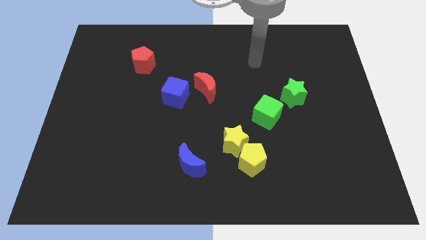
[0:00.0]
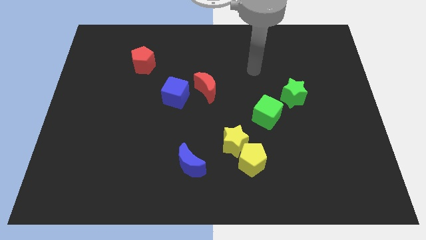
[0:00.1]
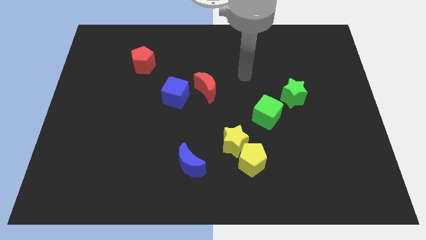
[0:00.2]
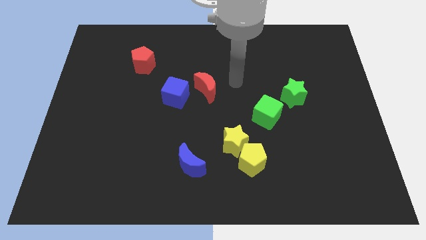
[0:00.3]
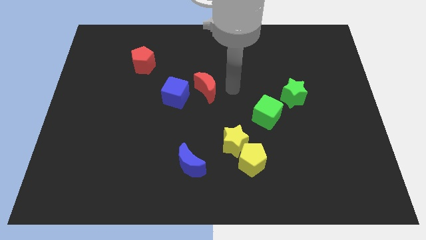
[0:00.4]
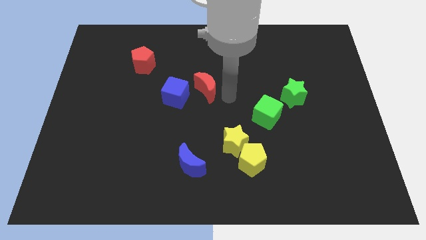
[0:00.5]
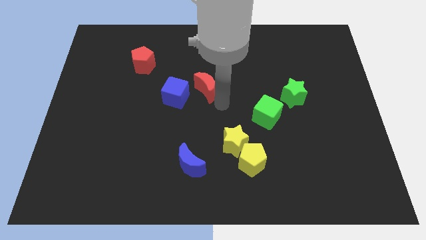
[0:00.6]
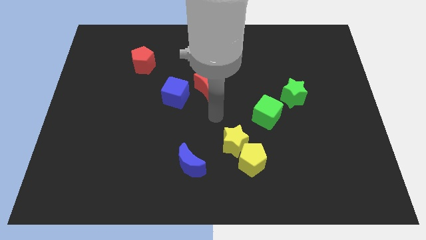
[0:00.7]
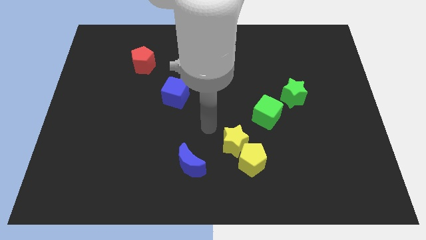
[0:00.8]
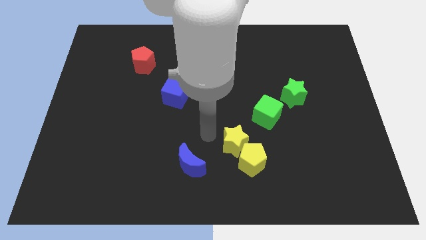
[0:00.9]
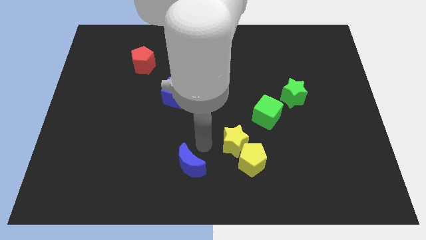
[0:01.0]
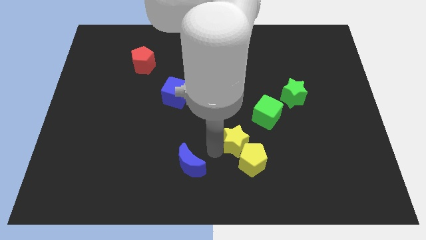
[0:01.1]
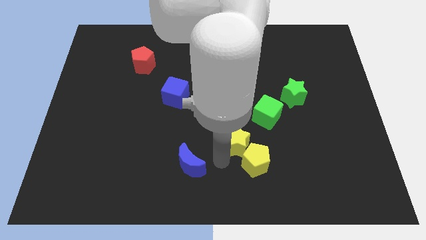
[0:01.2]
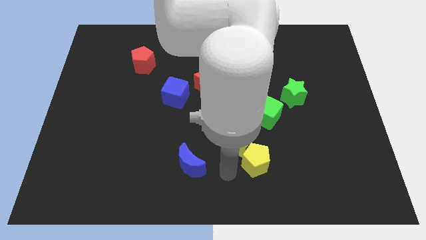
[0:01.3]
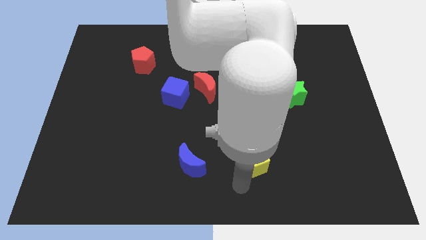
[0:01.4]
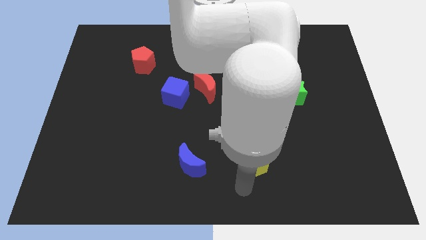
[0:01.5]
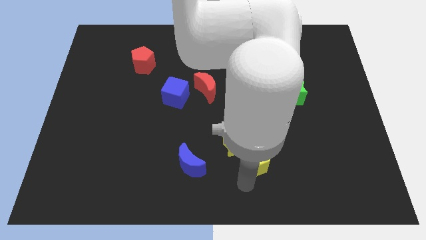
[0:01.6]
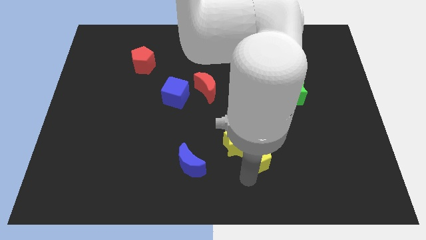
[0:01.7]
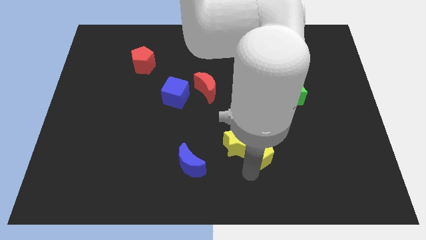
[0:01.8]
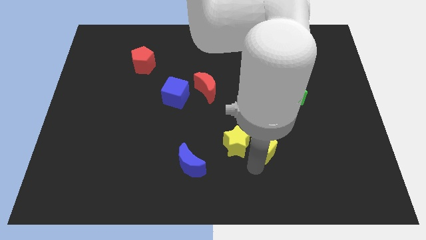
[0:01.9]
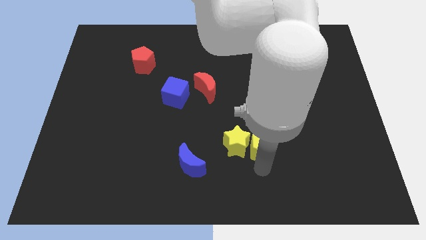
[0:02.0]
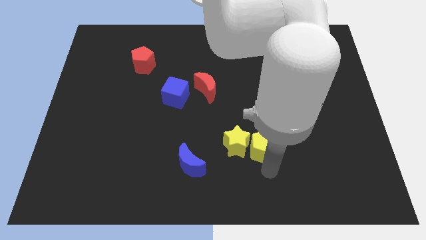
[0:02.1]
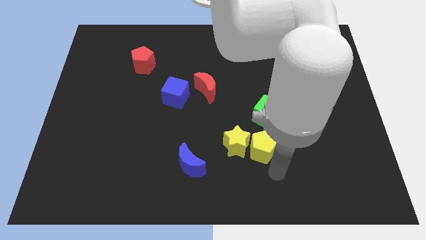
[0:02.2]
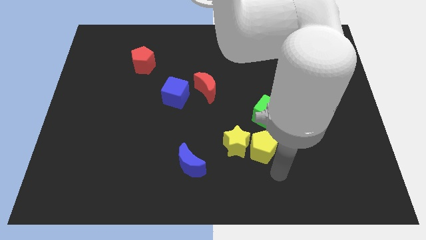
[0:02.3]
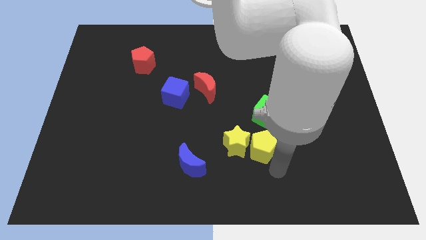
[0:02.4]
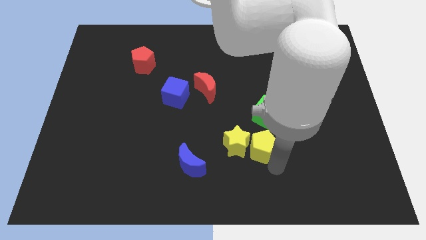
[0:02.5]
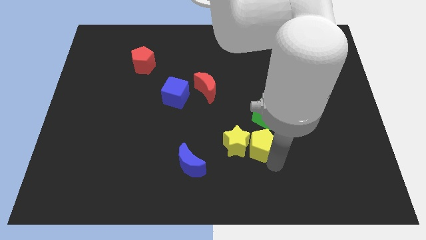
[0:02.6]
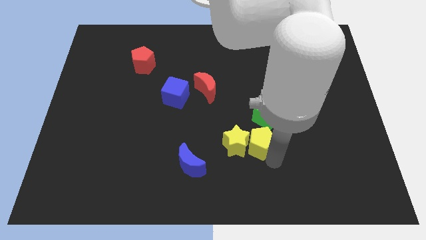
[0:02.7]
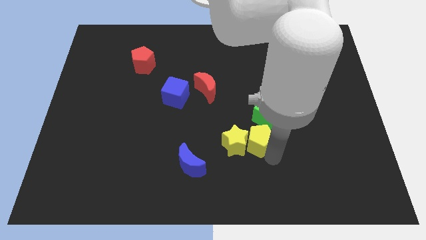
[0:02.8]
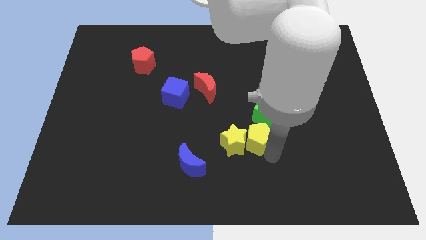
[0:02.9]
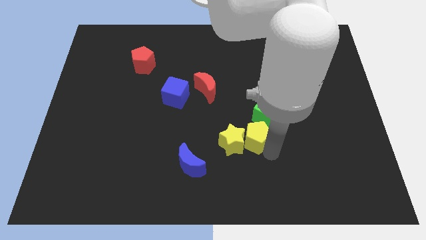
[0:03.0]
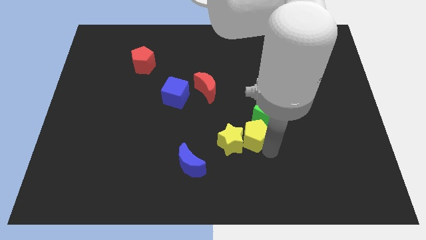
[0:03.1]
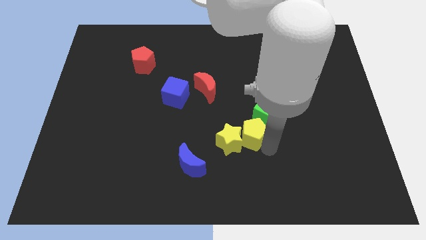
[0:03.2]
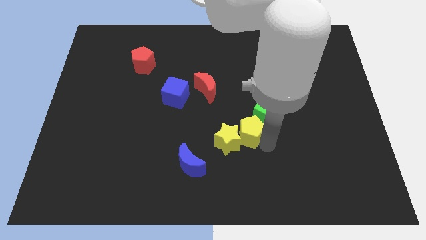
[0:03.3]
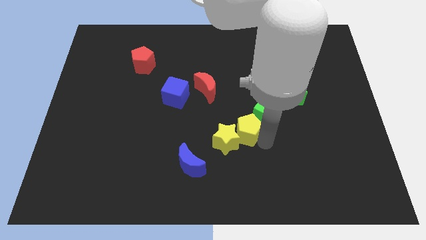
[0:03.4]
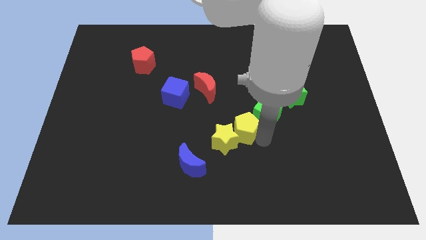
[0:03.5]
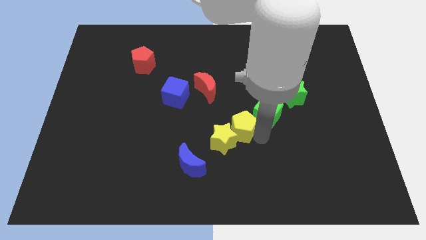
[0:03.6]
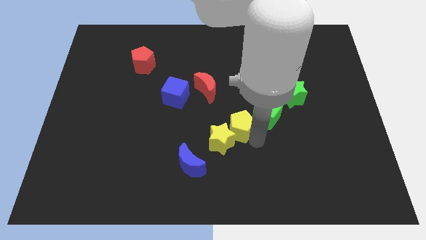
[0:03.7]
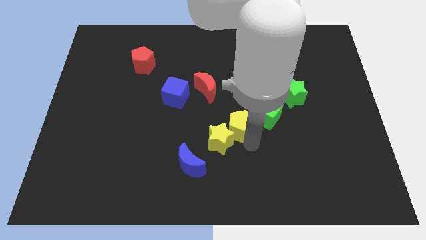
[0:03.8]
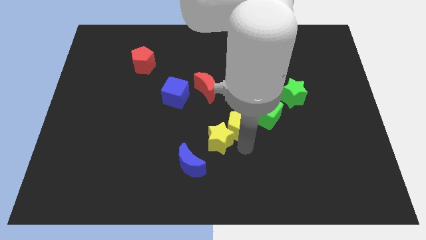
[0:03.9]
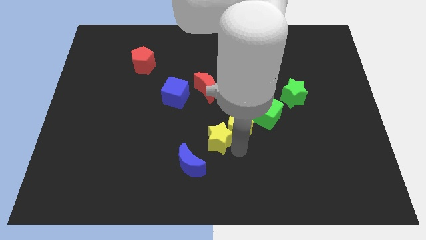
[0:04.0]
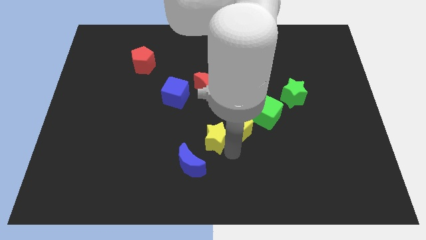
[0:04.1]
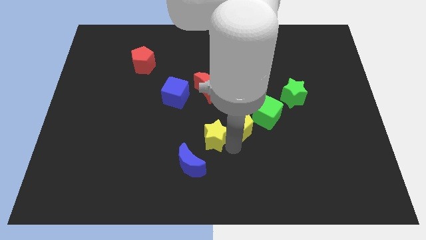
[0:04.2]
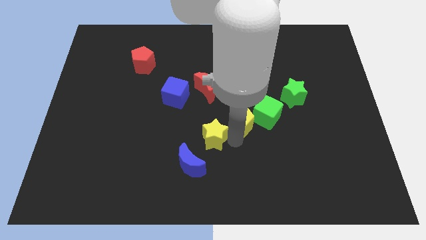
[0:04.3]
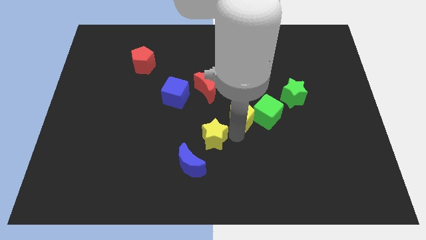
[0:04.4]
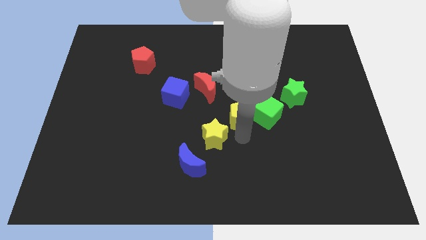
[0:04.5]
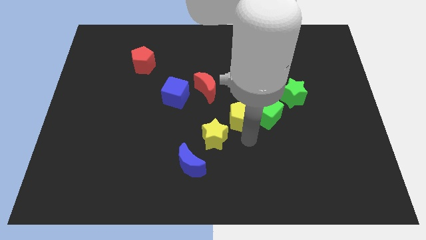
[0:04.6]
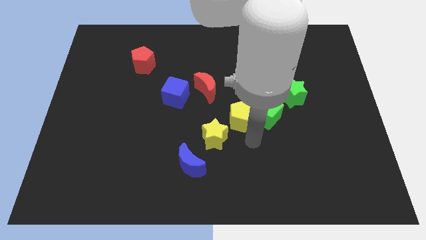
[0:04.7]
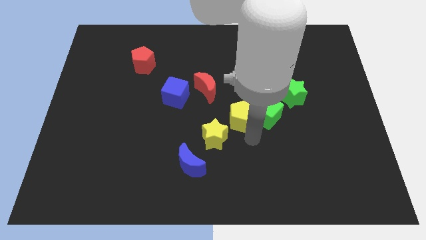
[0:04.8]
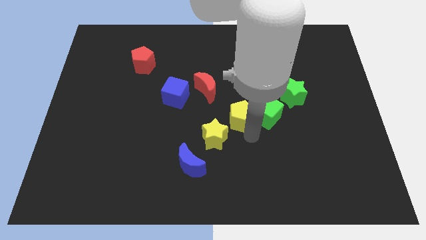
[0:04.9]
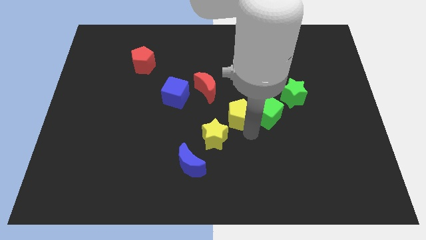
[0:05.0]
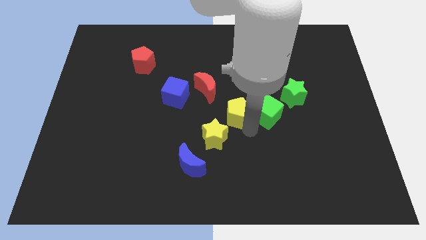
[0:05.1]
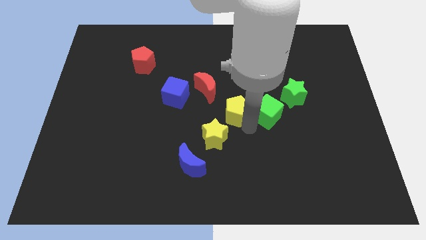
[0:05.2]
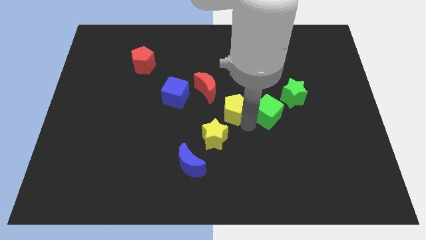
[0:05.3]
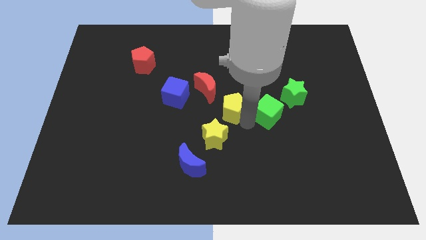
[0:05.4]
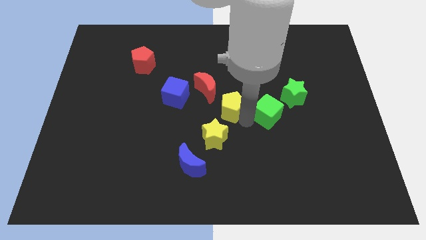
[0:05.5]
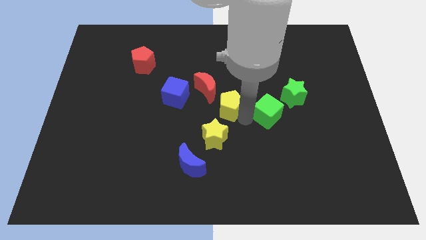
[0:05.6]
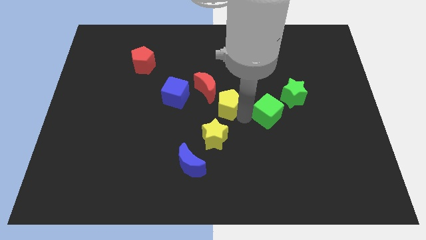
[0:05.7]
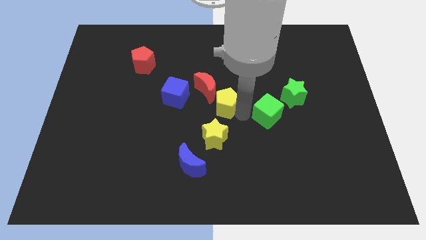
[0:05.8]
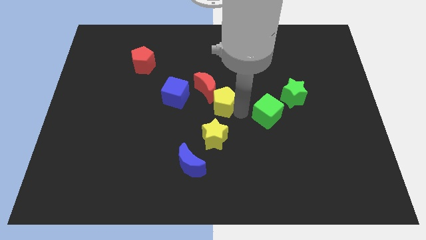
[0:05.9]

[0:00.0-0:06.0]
push the yellow pentagon to the red moon

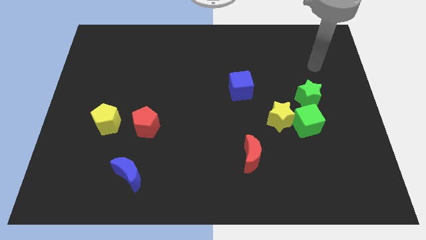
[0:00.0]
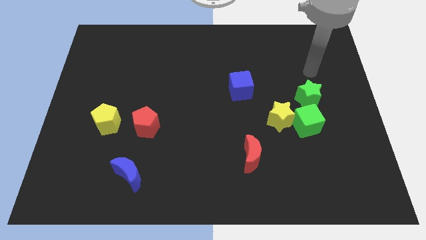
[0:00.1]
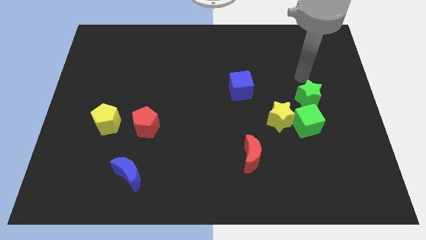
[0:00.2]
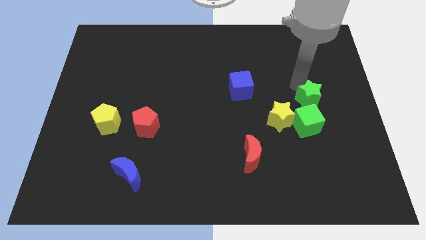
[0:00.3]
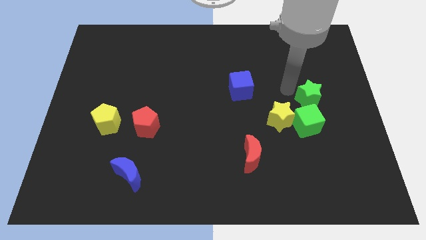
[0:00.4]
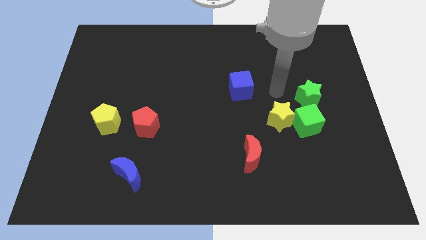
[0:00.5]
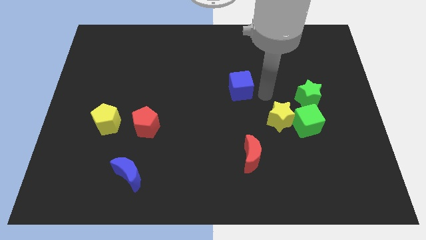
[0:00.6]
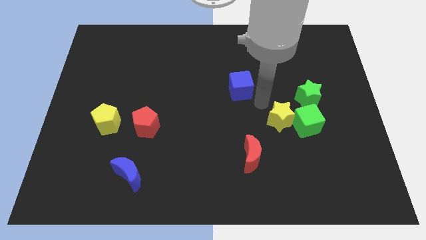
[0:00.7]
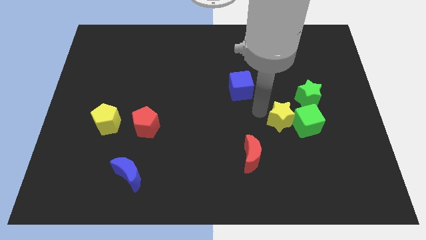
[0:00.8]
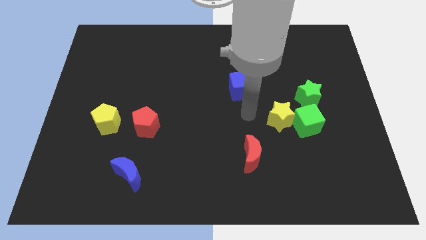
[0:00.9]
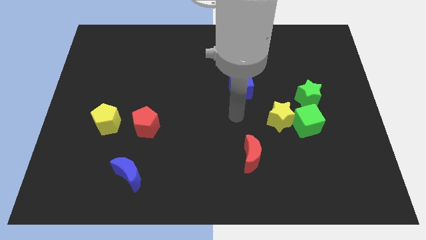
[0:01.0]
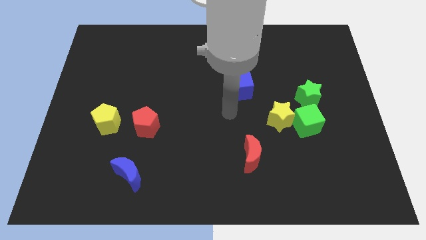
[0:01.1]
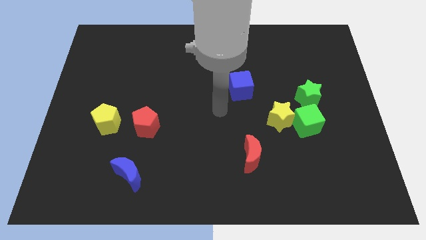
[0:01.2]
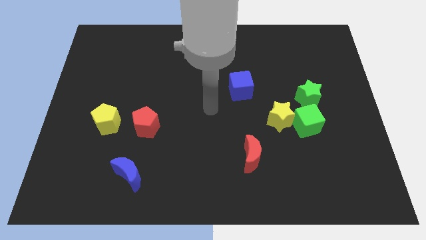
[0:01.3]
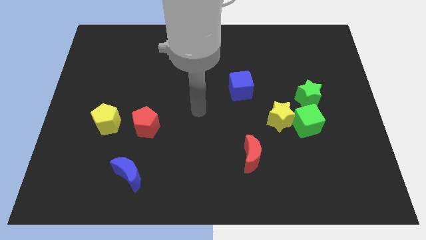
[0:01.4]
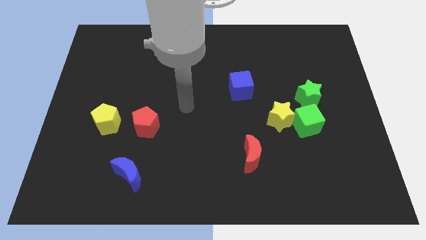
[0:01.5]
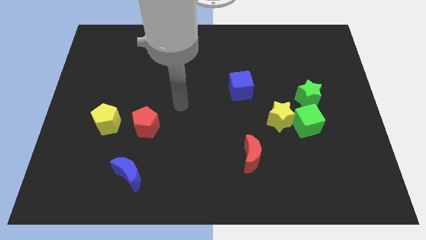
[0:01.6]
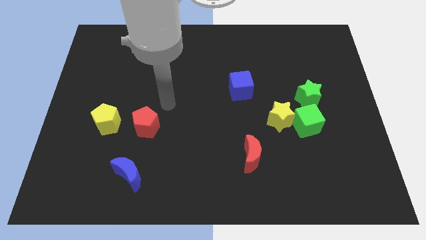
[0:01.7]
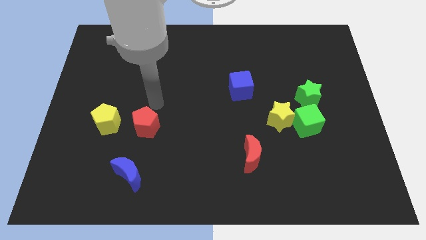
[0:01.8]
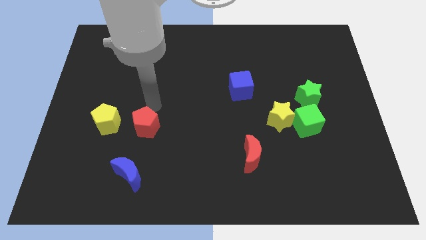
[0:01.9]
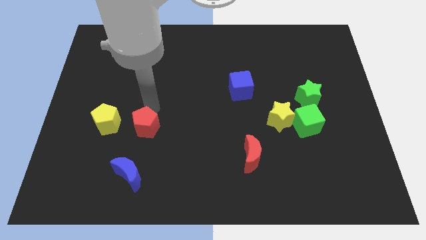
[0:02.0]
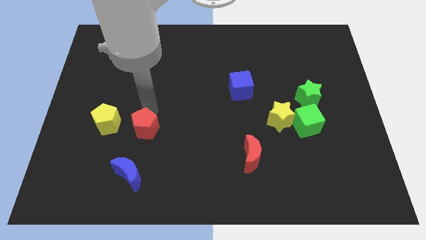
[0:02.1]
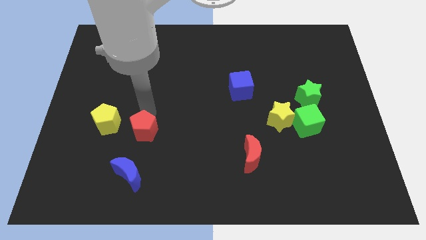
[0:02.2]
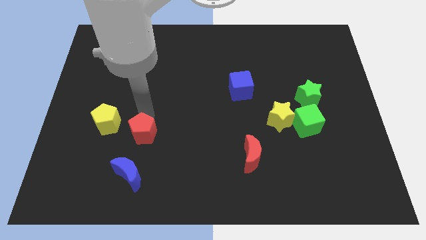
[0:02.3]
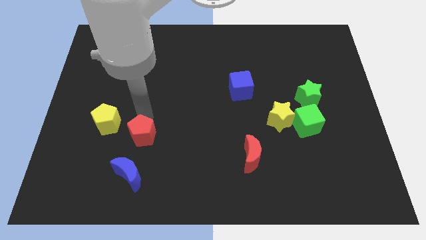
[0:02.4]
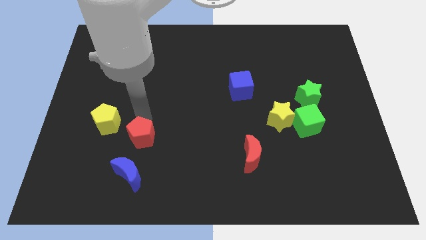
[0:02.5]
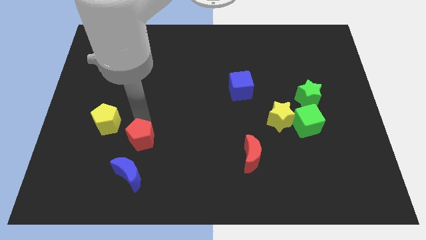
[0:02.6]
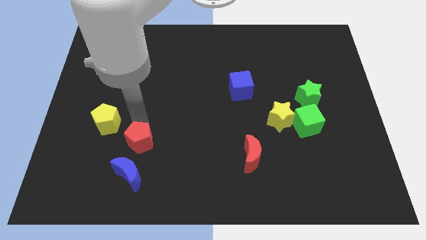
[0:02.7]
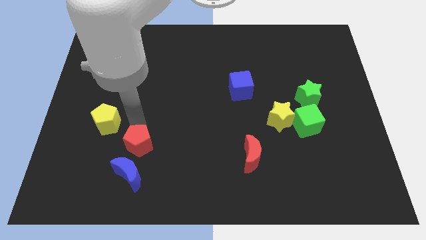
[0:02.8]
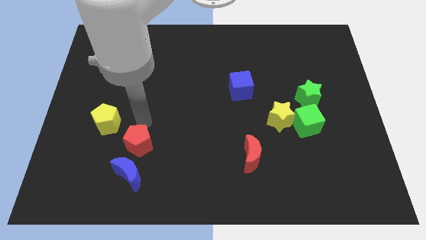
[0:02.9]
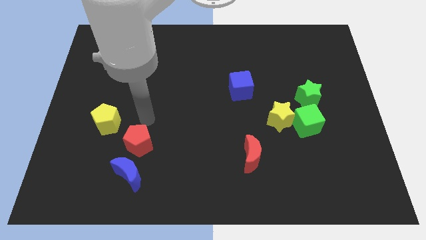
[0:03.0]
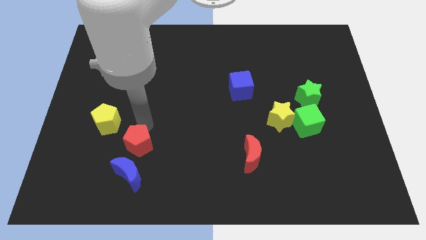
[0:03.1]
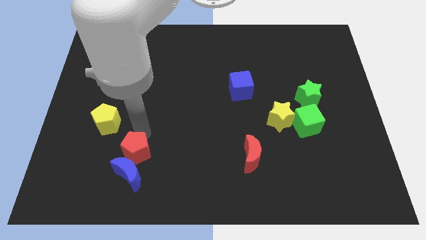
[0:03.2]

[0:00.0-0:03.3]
push the red pentagon close to the blue moon
